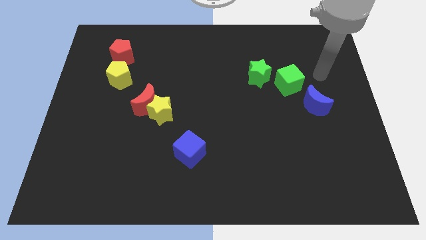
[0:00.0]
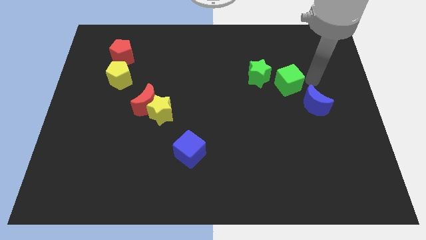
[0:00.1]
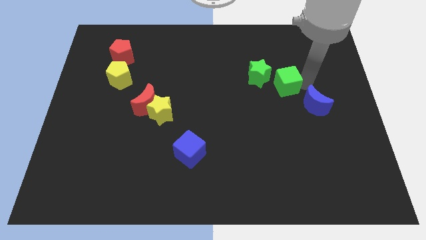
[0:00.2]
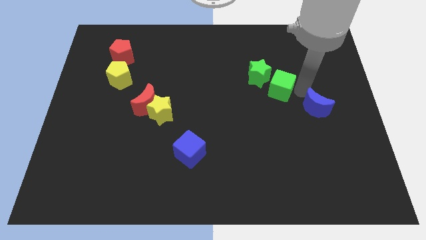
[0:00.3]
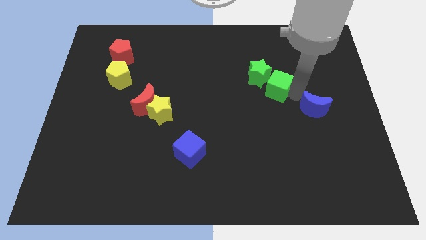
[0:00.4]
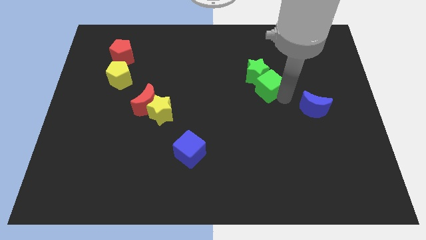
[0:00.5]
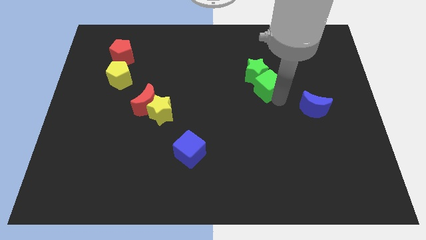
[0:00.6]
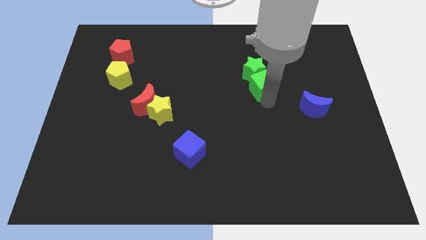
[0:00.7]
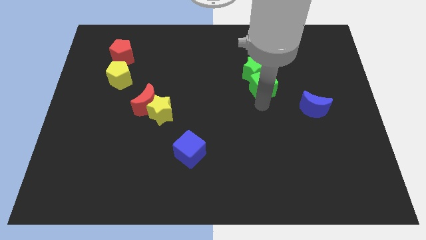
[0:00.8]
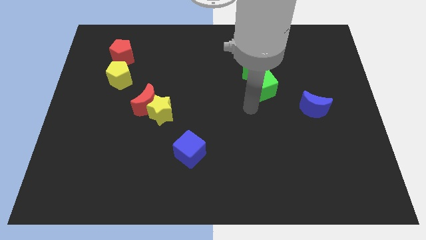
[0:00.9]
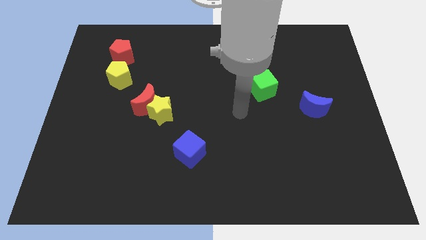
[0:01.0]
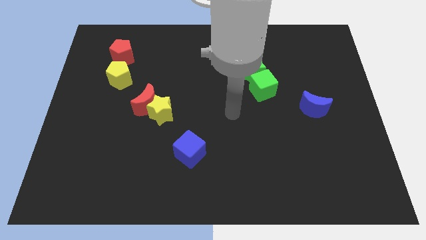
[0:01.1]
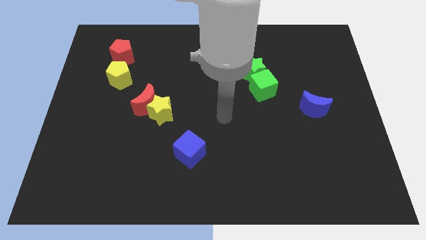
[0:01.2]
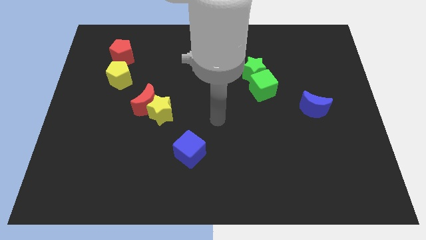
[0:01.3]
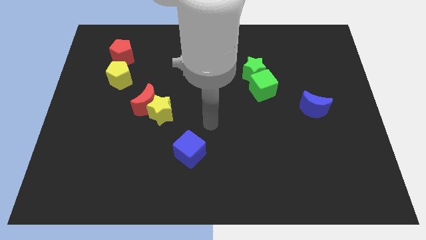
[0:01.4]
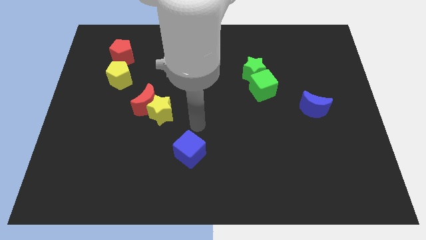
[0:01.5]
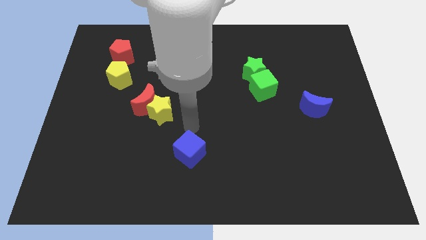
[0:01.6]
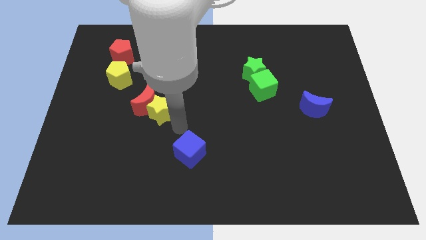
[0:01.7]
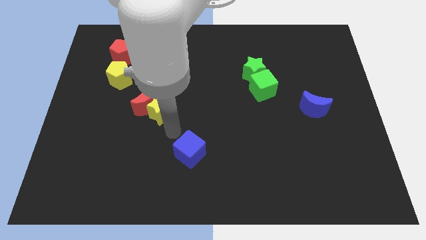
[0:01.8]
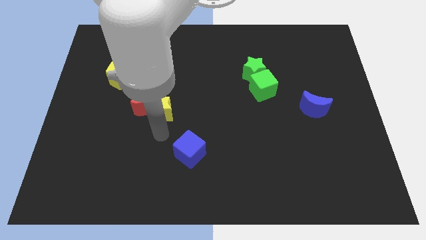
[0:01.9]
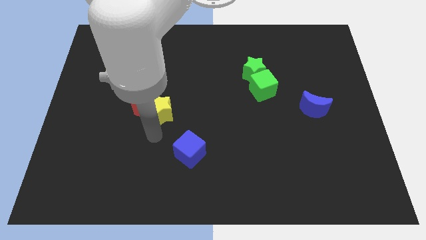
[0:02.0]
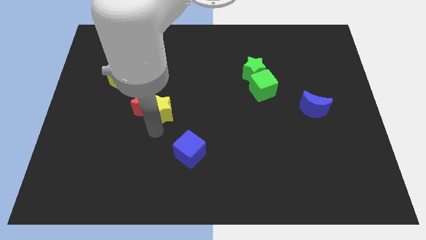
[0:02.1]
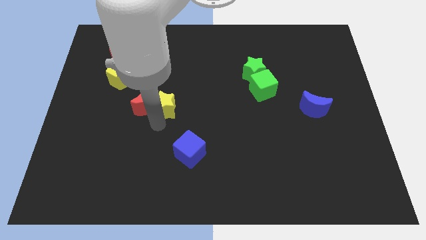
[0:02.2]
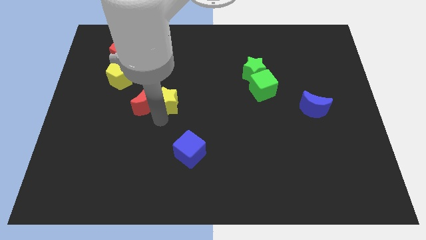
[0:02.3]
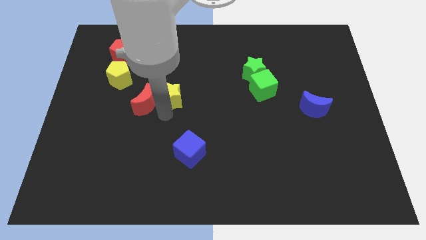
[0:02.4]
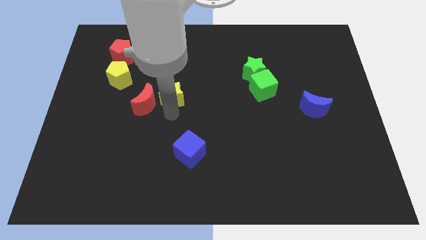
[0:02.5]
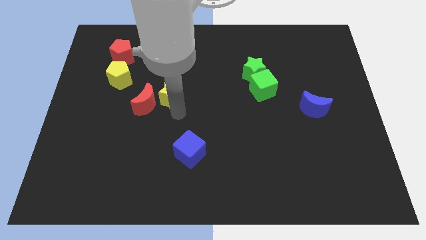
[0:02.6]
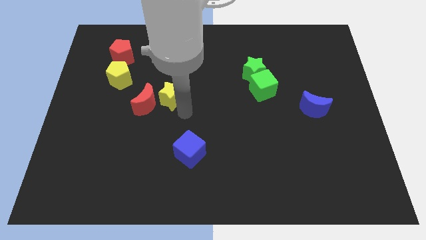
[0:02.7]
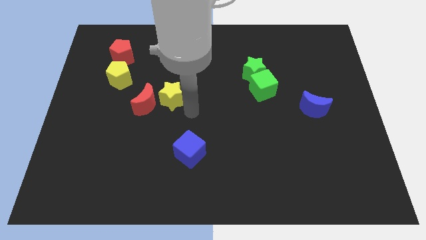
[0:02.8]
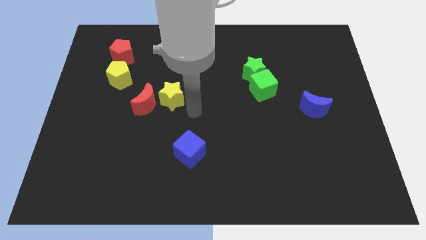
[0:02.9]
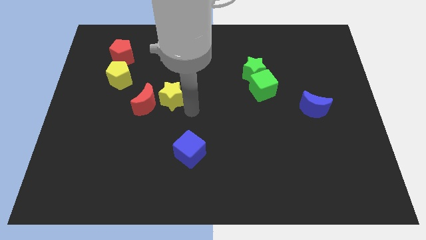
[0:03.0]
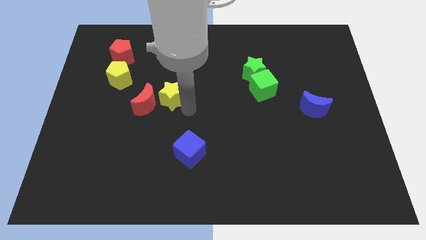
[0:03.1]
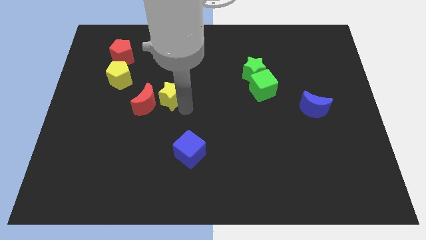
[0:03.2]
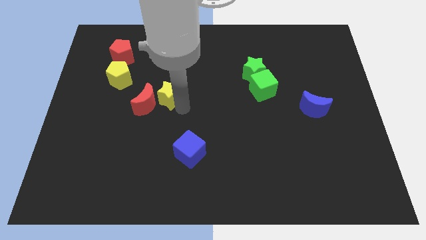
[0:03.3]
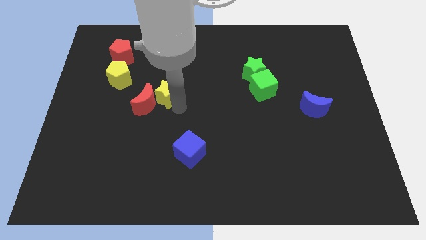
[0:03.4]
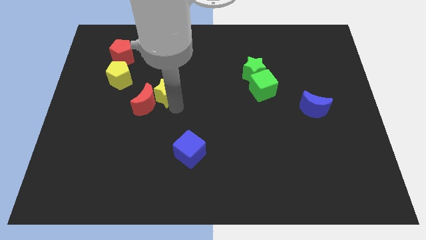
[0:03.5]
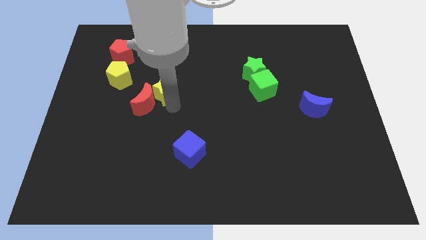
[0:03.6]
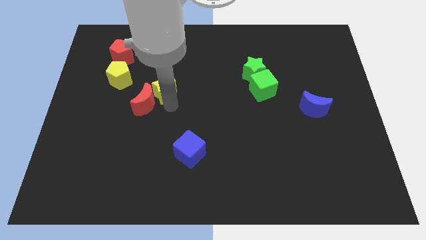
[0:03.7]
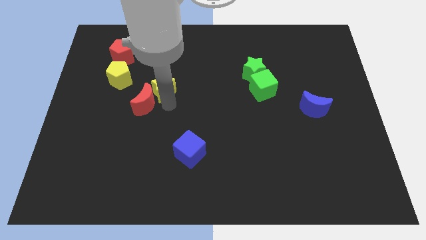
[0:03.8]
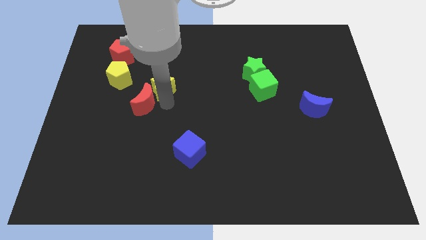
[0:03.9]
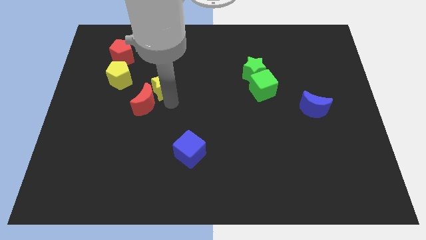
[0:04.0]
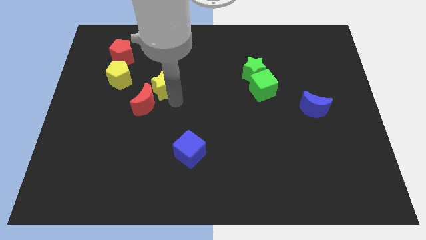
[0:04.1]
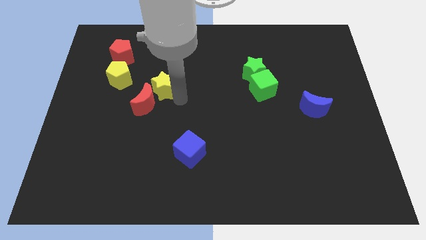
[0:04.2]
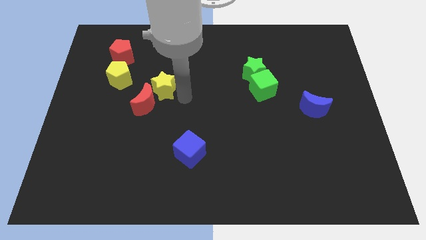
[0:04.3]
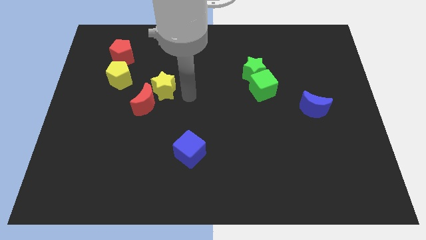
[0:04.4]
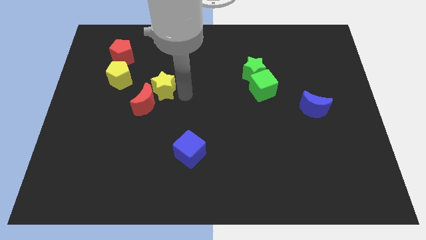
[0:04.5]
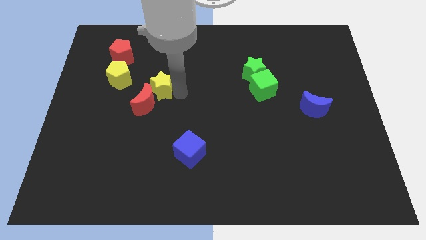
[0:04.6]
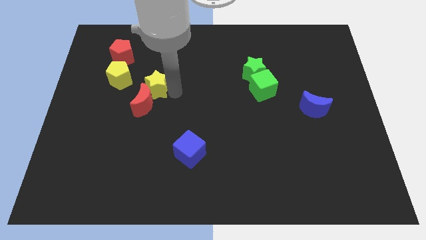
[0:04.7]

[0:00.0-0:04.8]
slide the yellow star diagonally down and to the right of the yellow pentagon

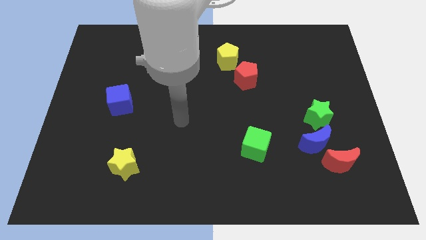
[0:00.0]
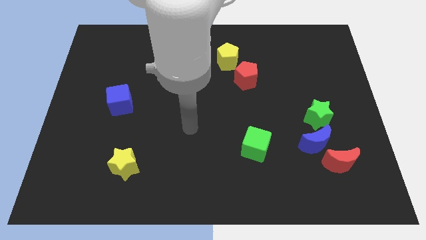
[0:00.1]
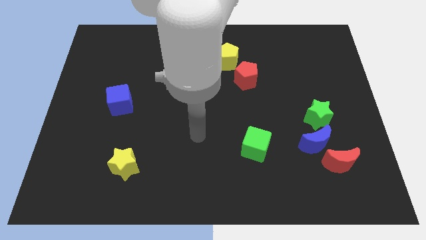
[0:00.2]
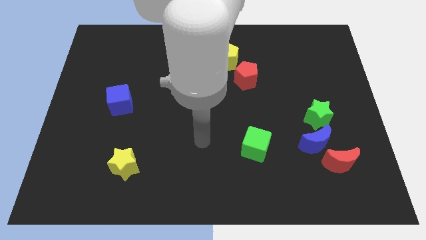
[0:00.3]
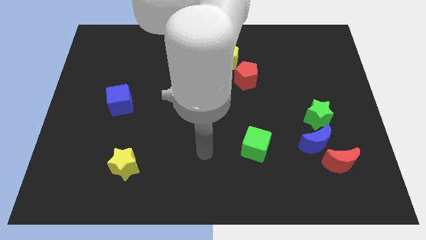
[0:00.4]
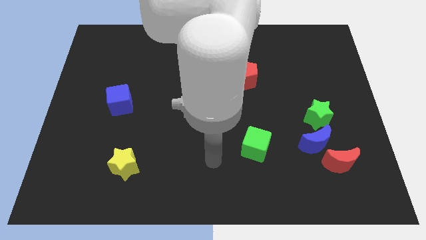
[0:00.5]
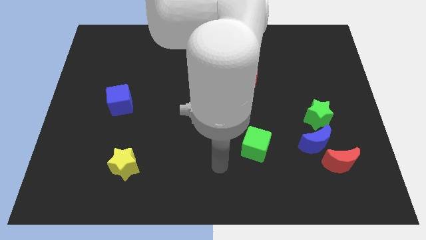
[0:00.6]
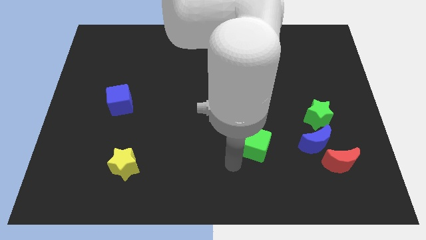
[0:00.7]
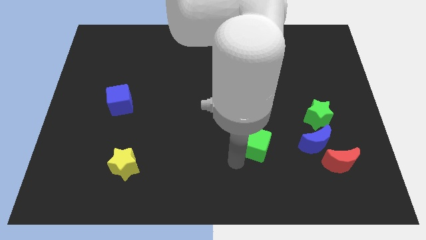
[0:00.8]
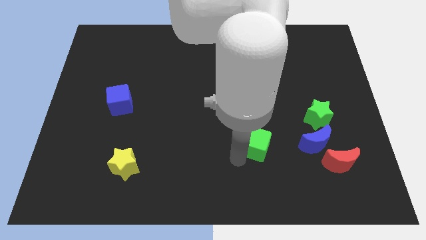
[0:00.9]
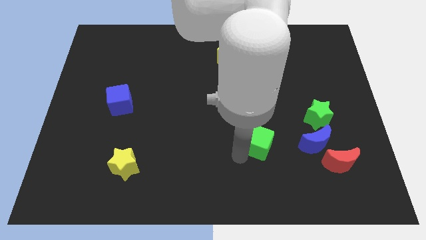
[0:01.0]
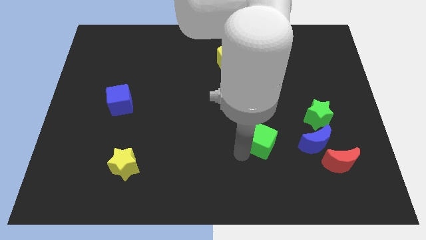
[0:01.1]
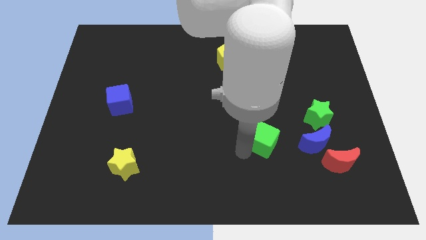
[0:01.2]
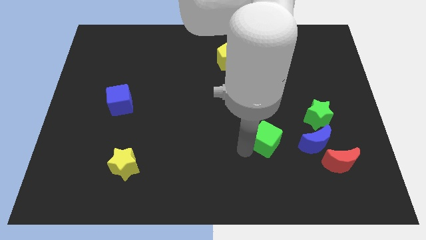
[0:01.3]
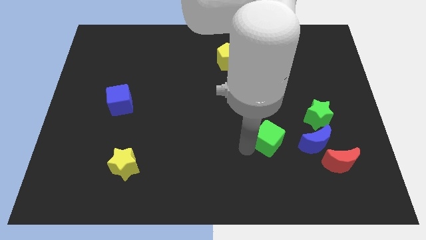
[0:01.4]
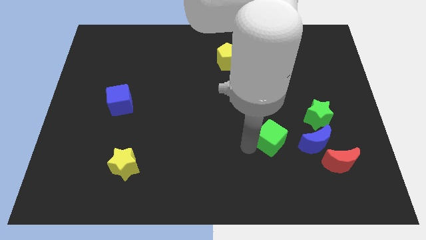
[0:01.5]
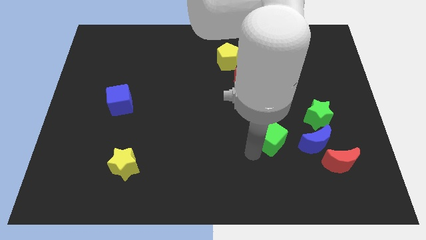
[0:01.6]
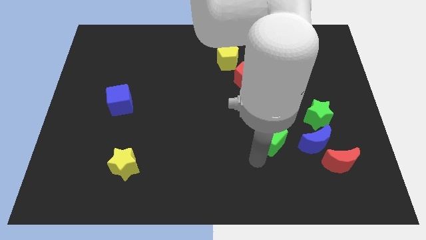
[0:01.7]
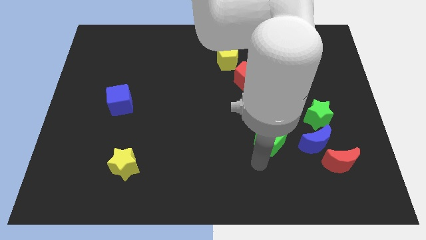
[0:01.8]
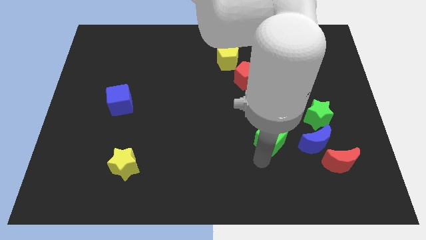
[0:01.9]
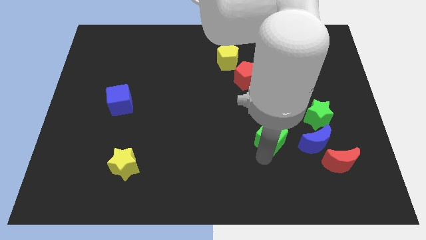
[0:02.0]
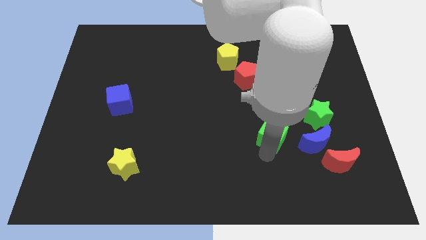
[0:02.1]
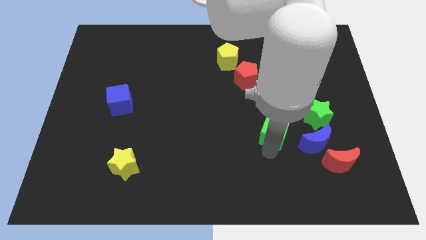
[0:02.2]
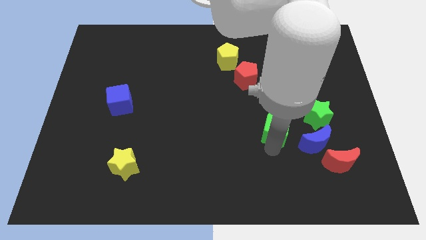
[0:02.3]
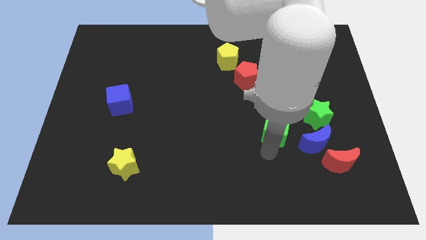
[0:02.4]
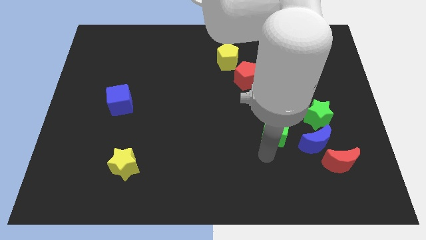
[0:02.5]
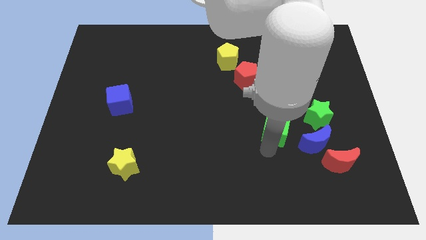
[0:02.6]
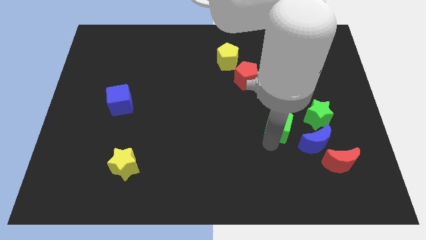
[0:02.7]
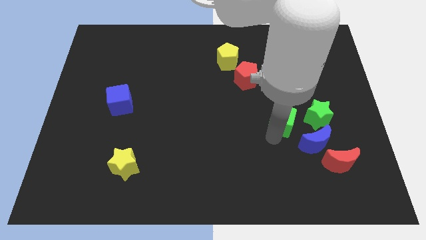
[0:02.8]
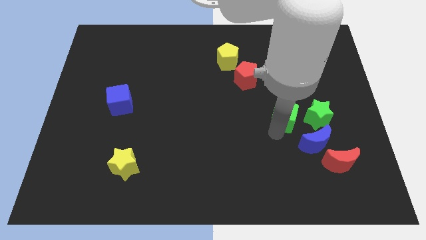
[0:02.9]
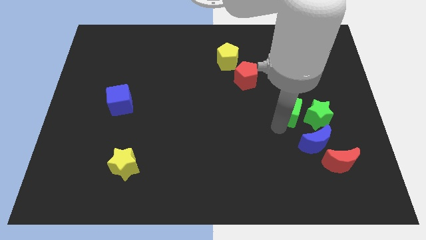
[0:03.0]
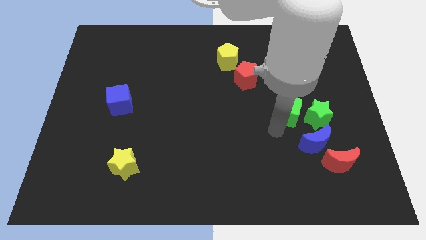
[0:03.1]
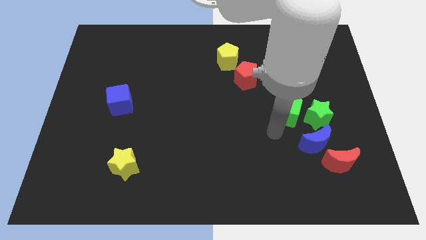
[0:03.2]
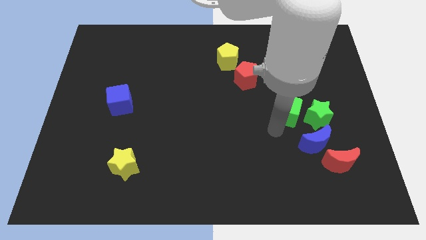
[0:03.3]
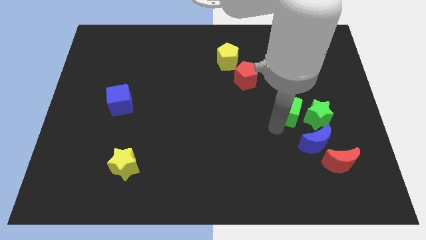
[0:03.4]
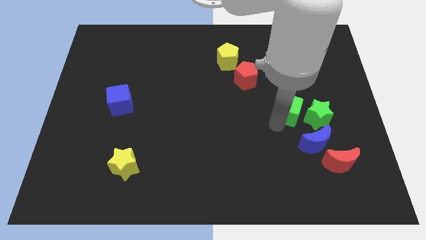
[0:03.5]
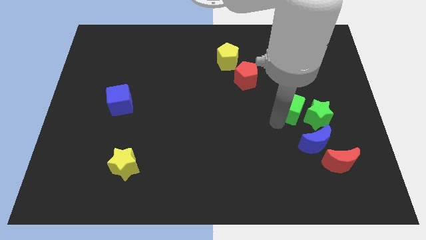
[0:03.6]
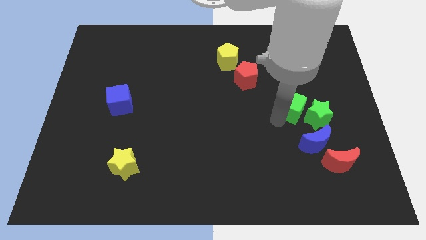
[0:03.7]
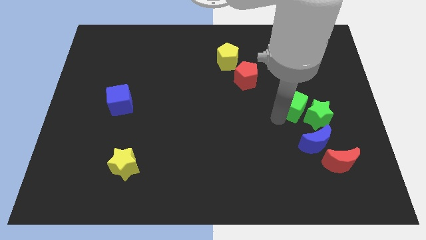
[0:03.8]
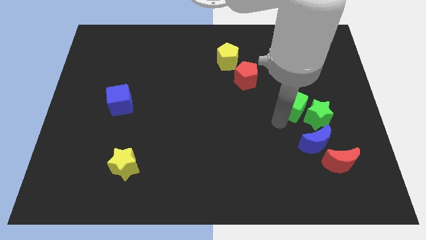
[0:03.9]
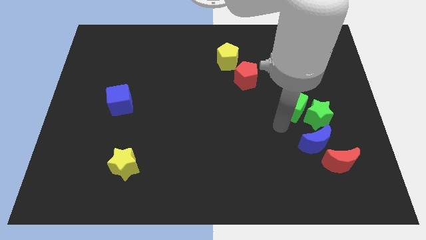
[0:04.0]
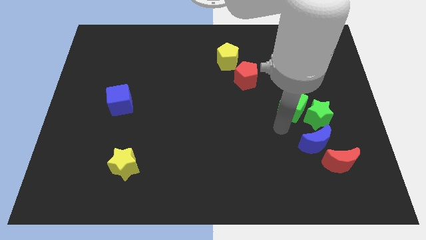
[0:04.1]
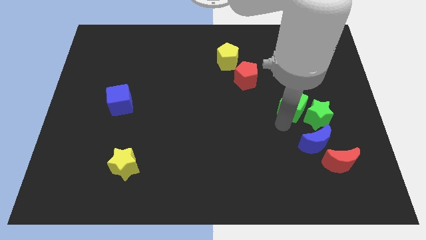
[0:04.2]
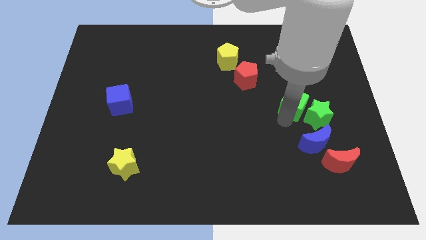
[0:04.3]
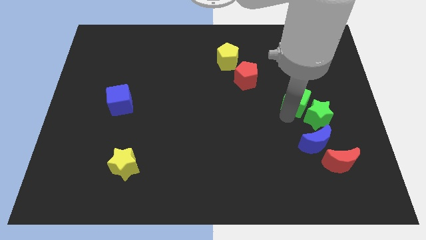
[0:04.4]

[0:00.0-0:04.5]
slide the green cube above the green star
